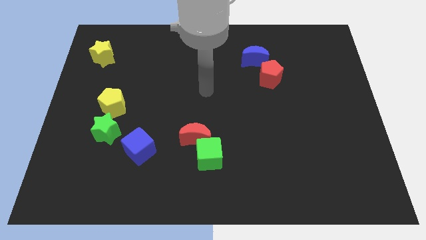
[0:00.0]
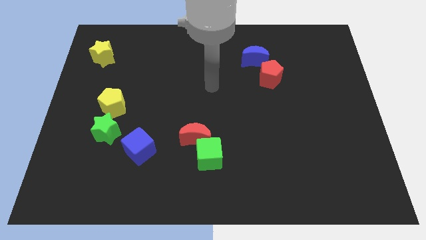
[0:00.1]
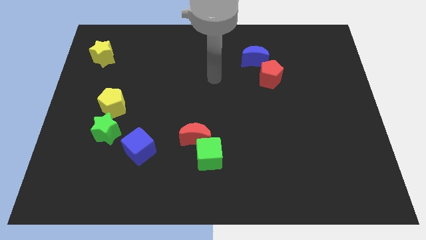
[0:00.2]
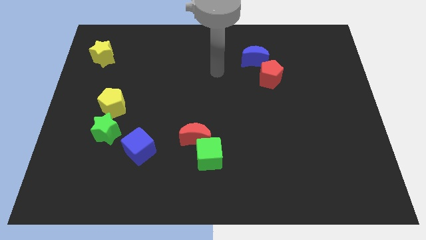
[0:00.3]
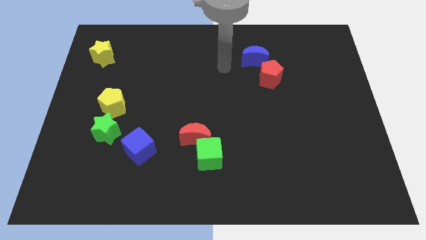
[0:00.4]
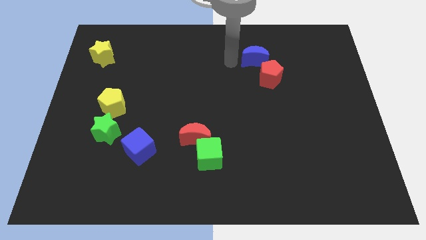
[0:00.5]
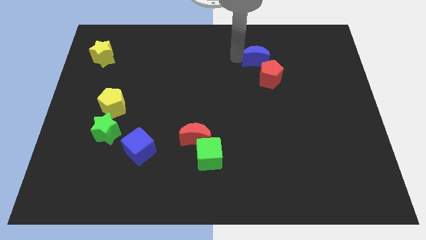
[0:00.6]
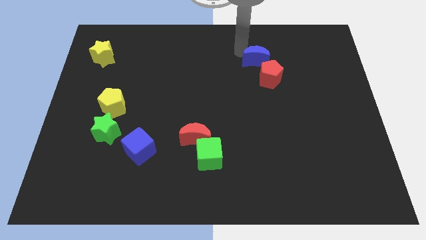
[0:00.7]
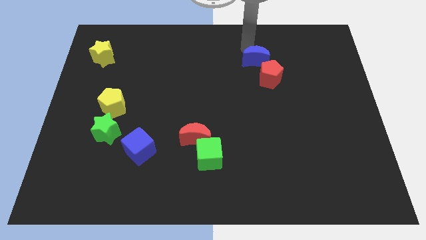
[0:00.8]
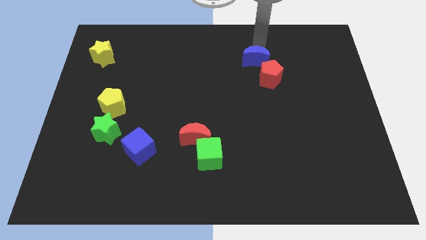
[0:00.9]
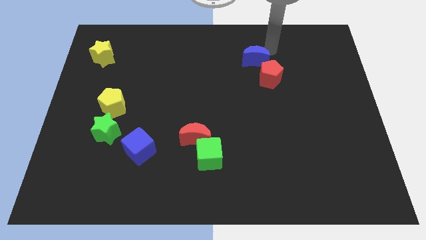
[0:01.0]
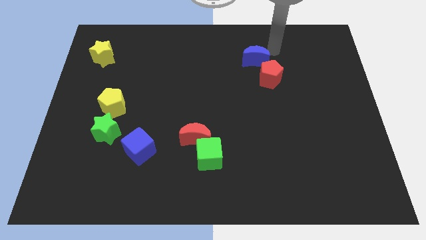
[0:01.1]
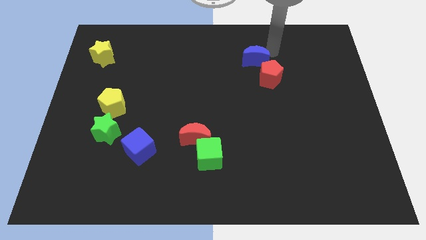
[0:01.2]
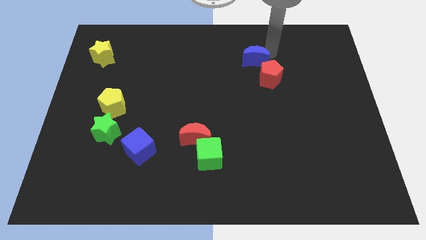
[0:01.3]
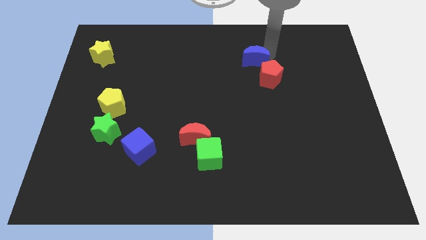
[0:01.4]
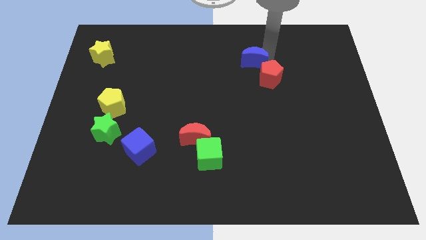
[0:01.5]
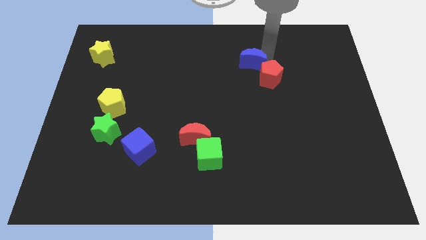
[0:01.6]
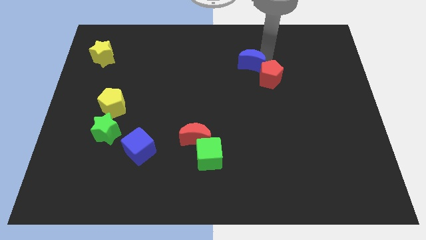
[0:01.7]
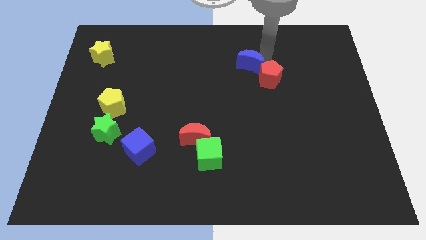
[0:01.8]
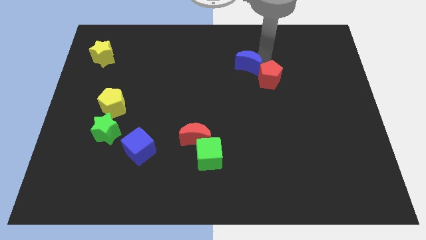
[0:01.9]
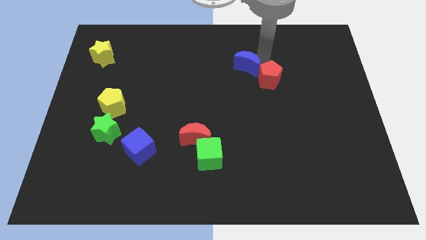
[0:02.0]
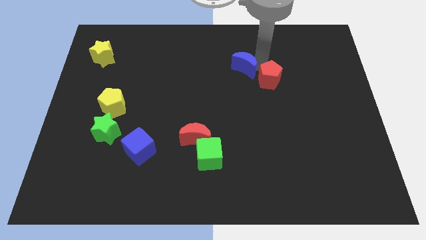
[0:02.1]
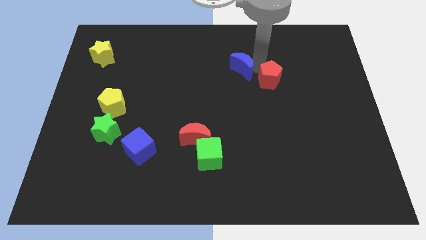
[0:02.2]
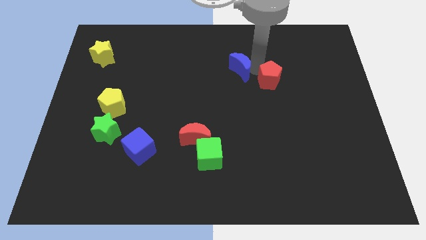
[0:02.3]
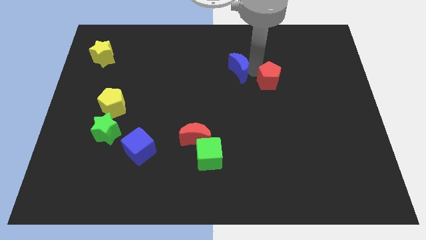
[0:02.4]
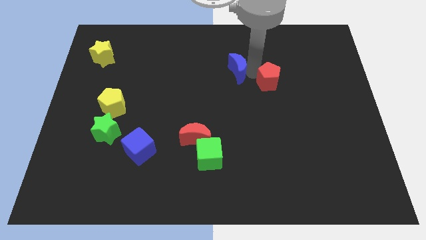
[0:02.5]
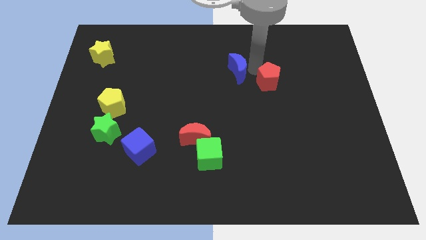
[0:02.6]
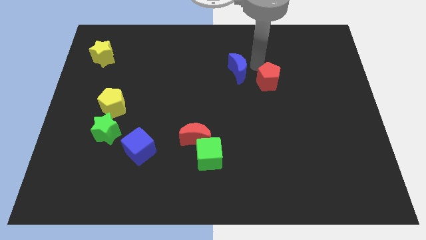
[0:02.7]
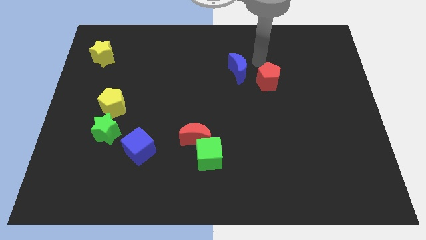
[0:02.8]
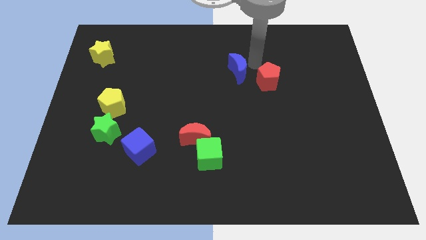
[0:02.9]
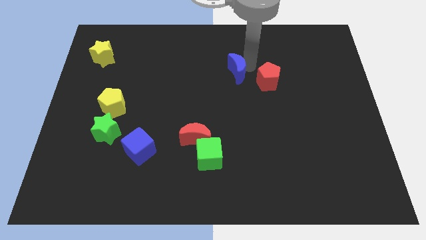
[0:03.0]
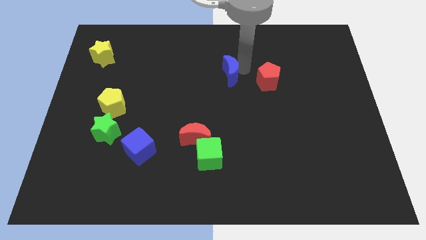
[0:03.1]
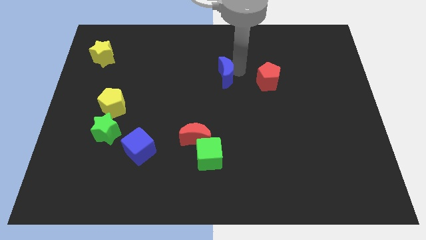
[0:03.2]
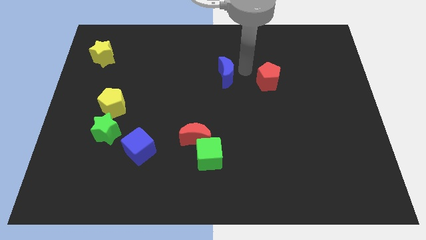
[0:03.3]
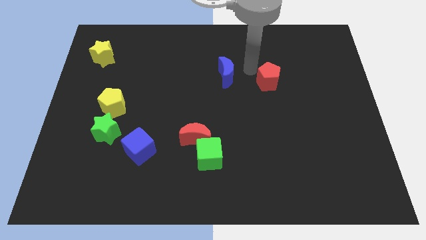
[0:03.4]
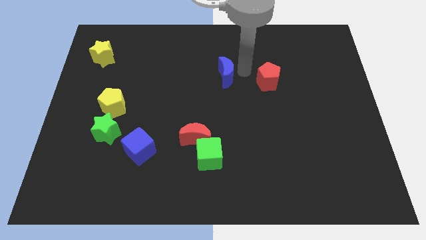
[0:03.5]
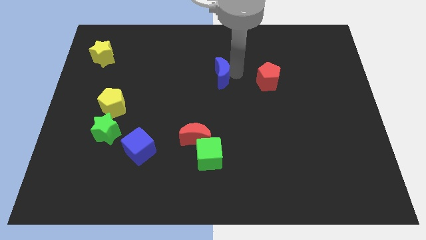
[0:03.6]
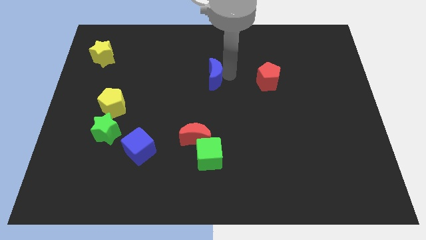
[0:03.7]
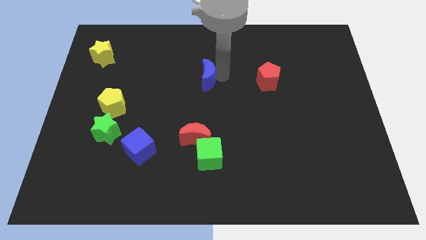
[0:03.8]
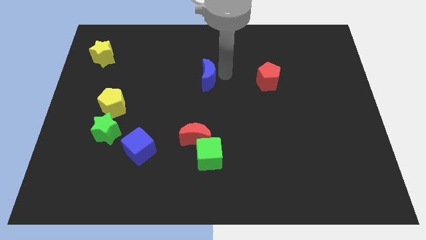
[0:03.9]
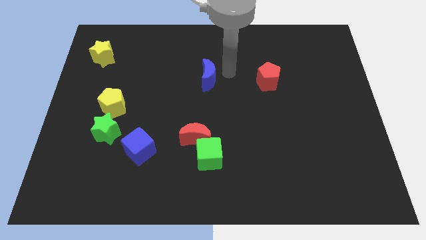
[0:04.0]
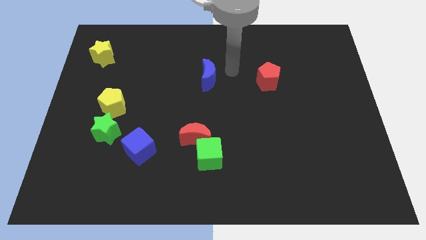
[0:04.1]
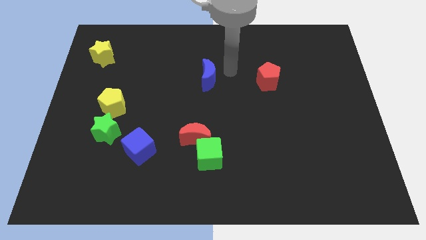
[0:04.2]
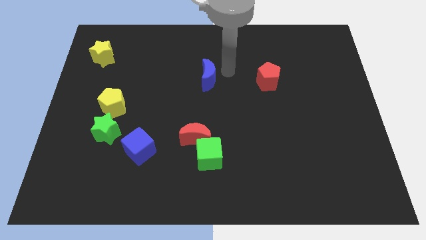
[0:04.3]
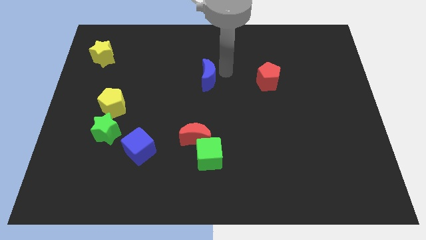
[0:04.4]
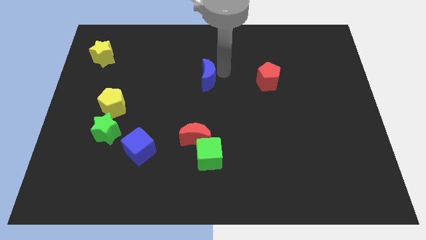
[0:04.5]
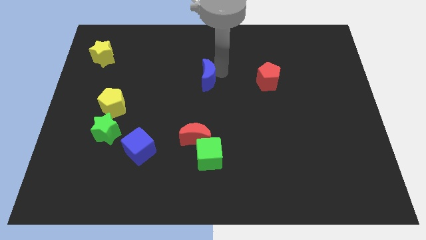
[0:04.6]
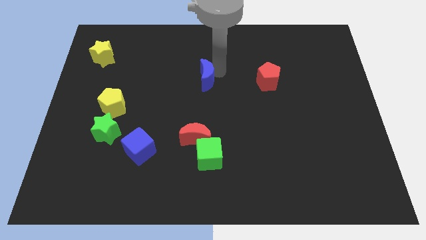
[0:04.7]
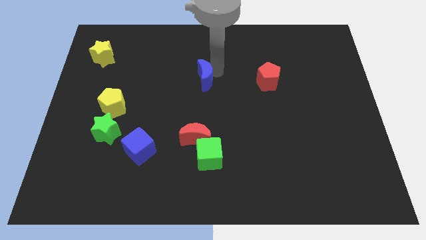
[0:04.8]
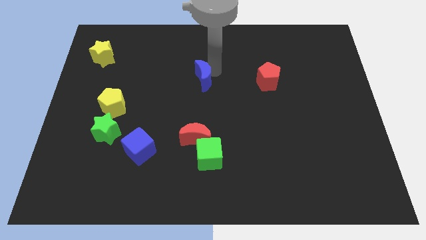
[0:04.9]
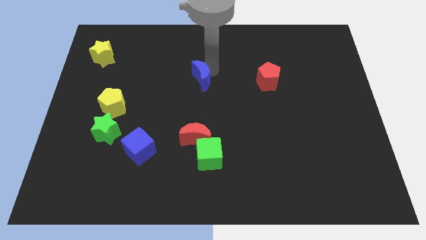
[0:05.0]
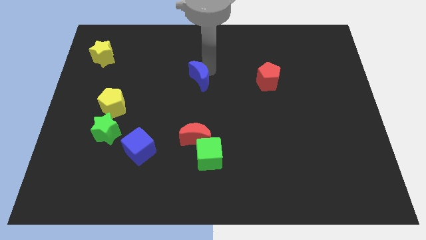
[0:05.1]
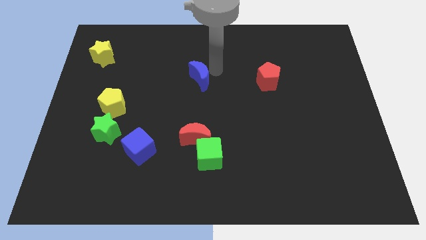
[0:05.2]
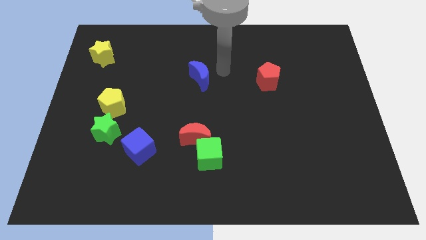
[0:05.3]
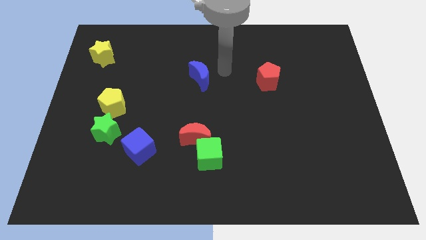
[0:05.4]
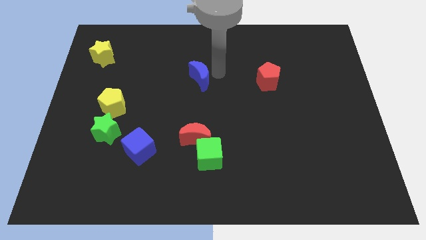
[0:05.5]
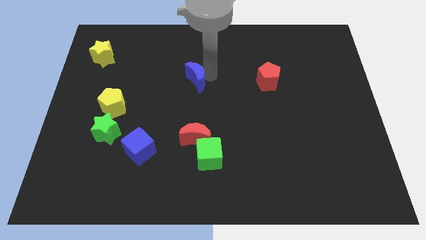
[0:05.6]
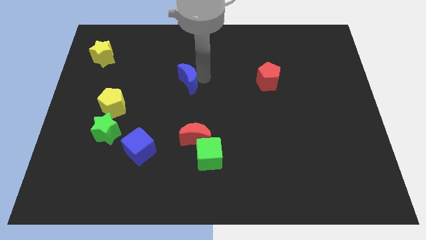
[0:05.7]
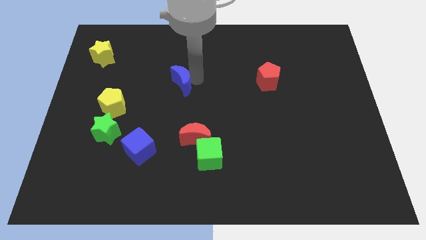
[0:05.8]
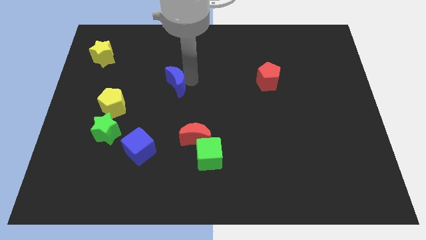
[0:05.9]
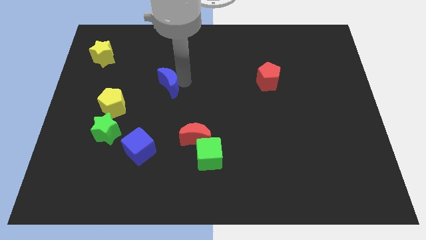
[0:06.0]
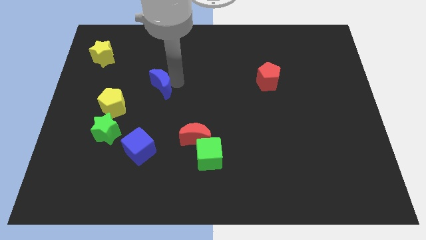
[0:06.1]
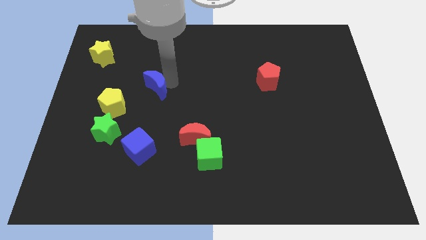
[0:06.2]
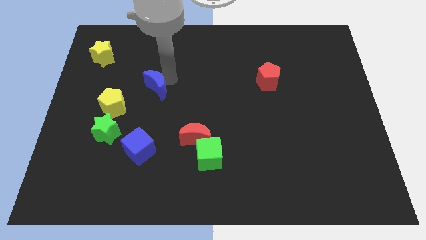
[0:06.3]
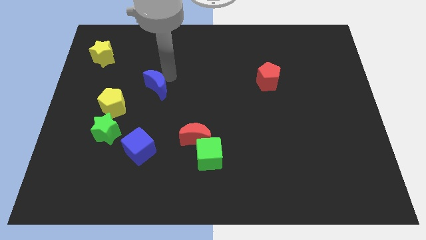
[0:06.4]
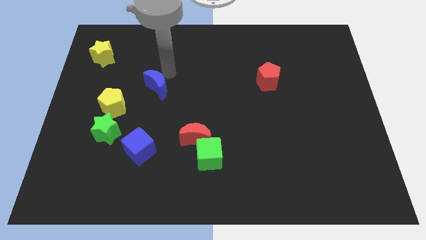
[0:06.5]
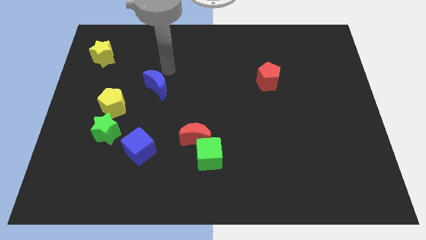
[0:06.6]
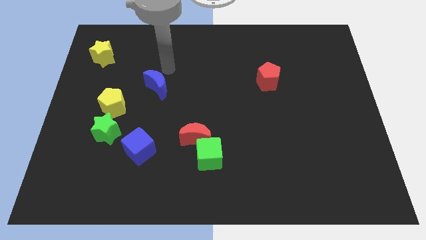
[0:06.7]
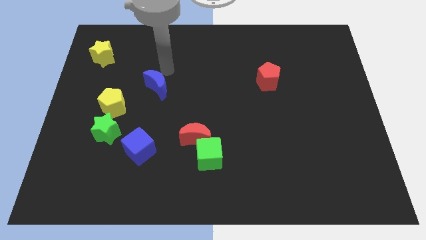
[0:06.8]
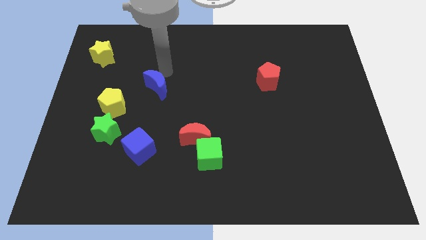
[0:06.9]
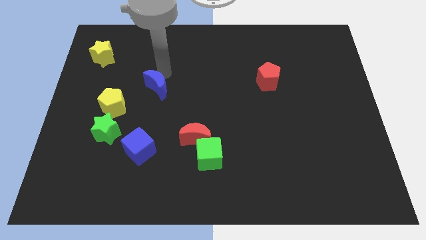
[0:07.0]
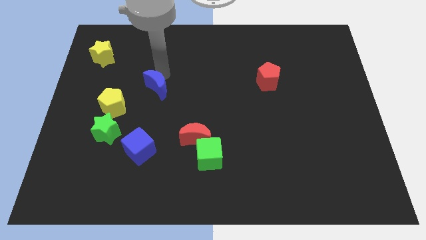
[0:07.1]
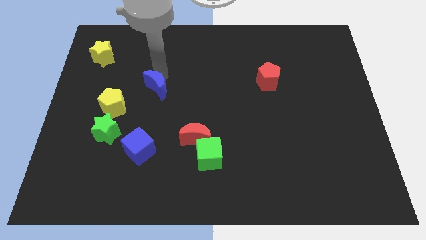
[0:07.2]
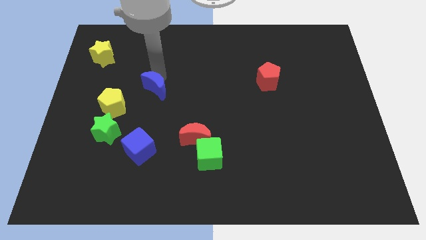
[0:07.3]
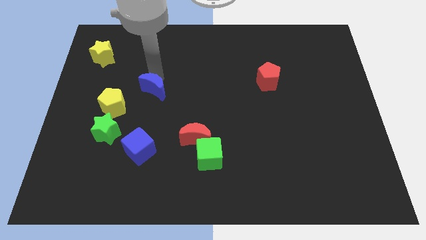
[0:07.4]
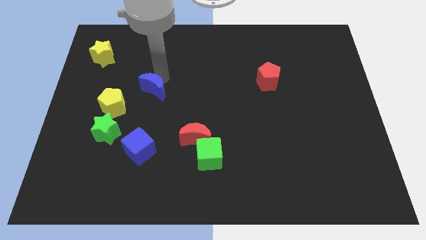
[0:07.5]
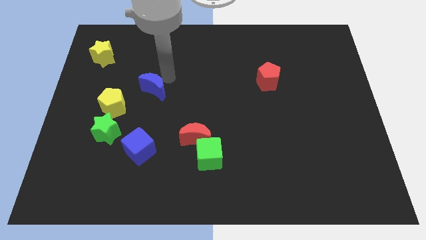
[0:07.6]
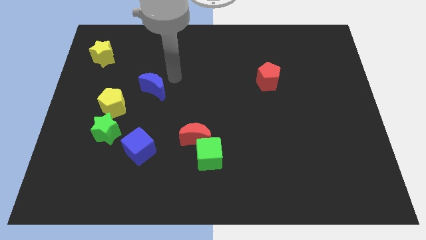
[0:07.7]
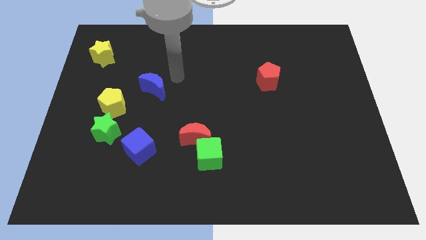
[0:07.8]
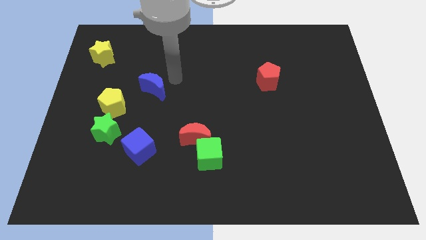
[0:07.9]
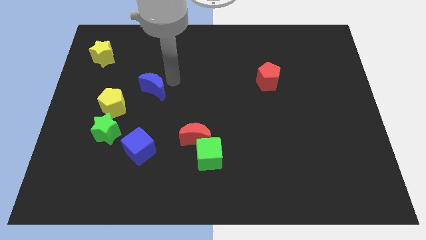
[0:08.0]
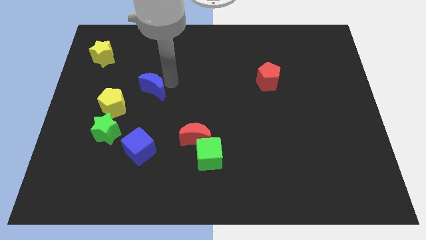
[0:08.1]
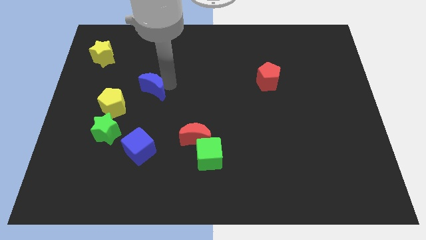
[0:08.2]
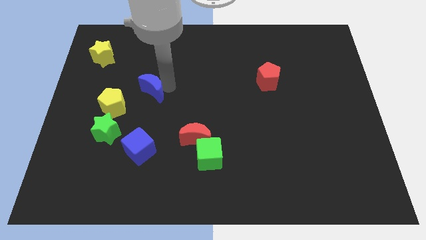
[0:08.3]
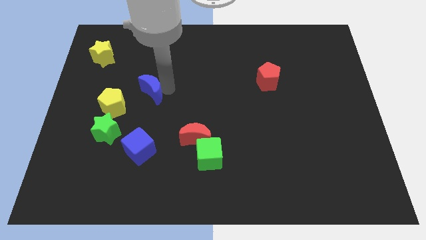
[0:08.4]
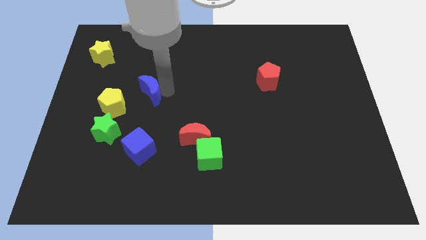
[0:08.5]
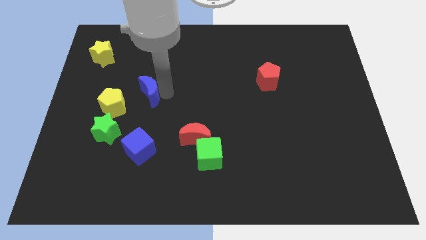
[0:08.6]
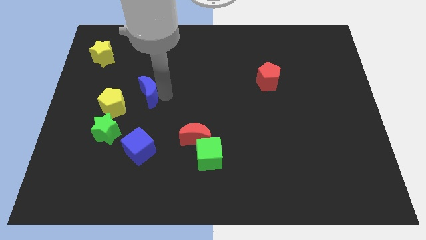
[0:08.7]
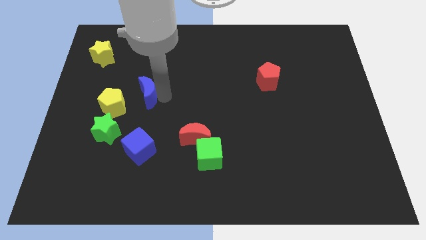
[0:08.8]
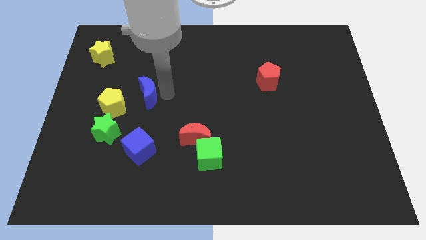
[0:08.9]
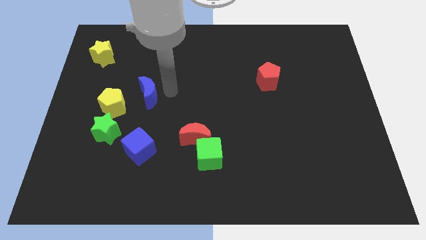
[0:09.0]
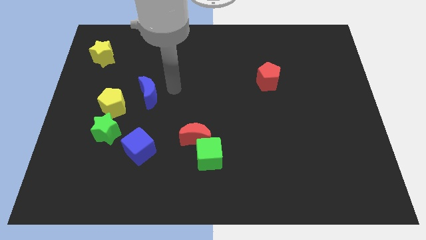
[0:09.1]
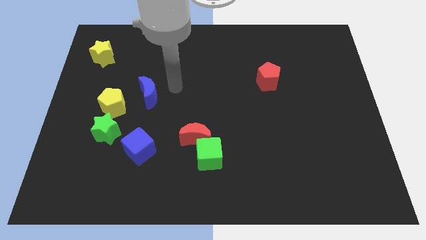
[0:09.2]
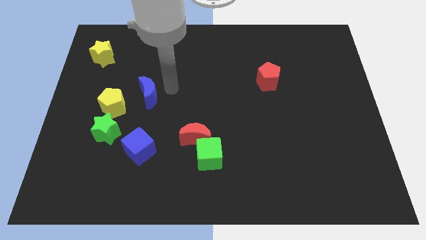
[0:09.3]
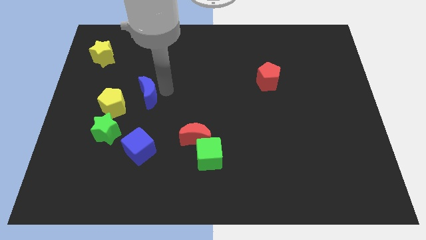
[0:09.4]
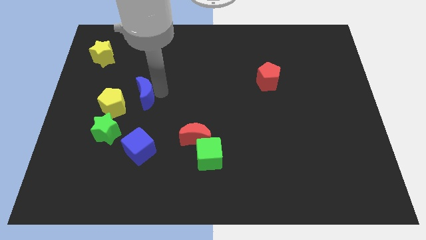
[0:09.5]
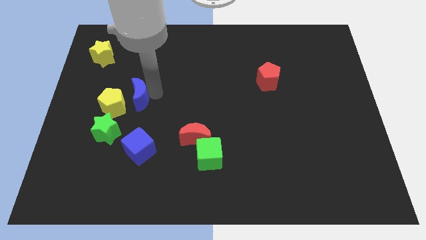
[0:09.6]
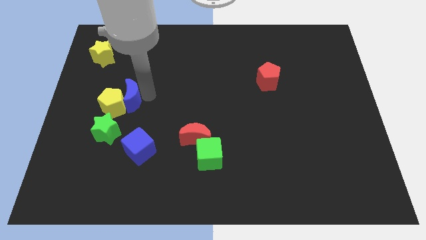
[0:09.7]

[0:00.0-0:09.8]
move the blue moon close to the yellow pentagon
